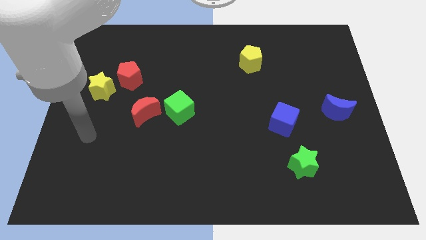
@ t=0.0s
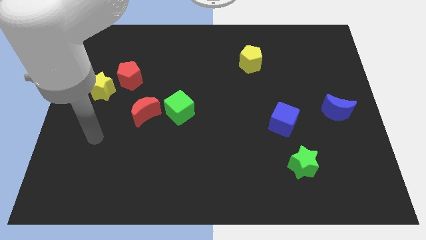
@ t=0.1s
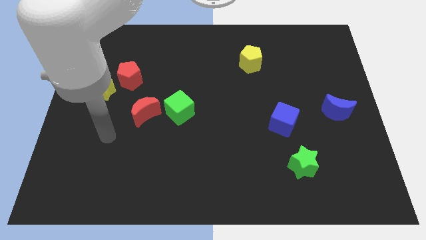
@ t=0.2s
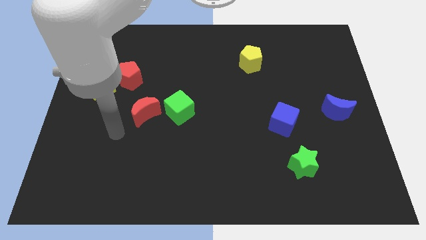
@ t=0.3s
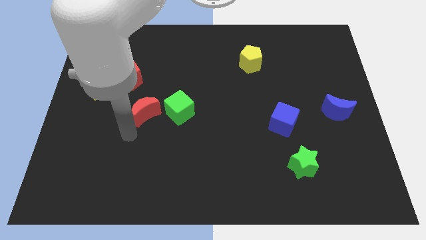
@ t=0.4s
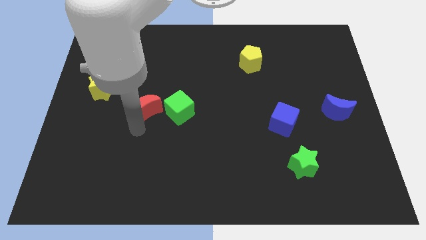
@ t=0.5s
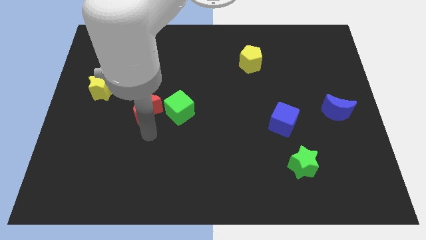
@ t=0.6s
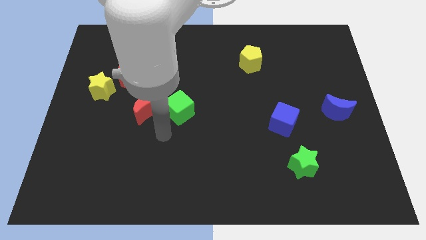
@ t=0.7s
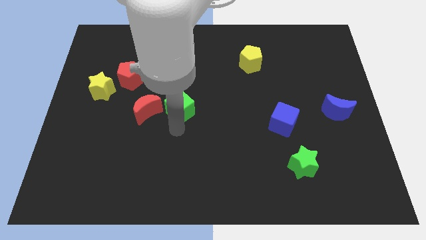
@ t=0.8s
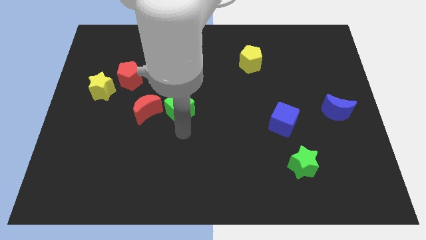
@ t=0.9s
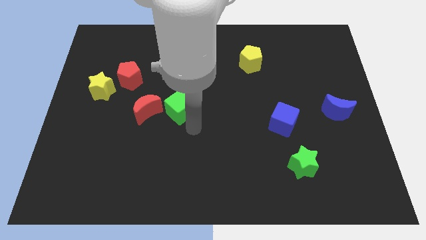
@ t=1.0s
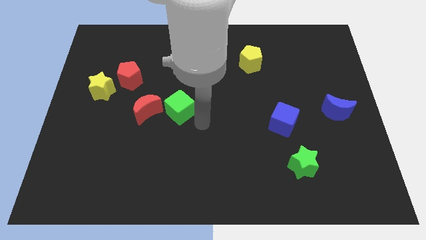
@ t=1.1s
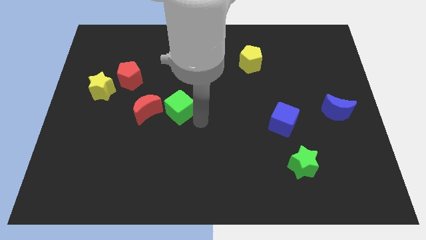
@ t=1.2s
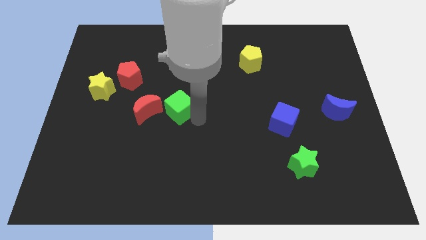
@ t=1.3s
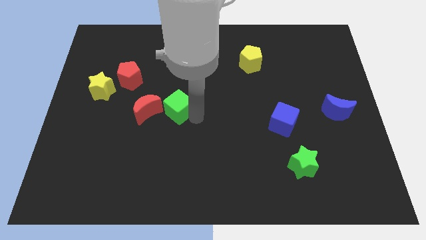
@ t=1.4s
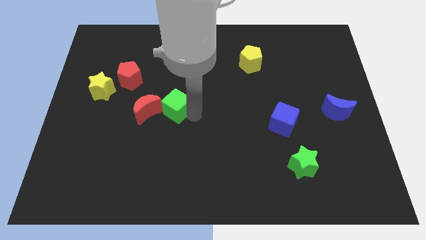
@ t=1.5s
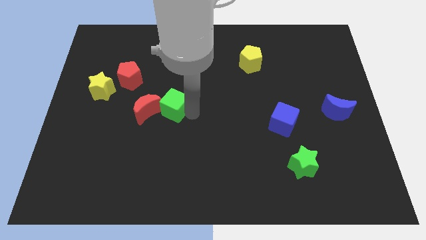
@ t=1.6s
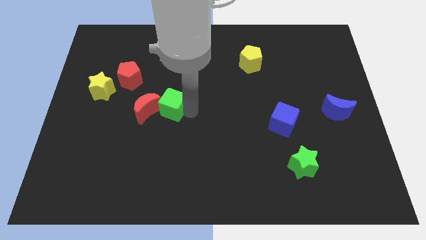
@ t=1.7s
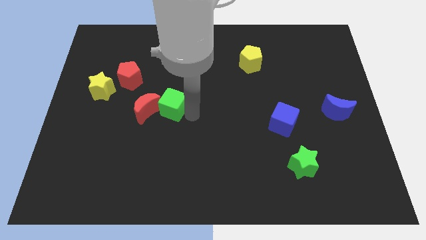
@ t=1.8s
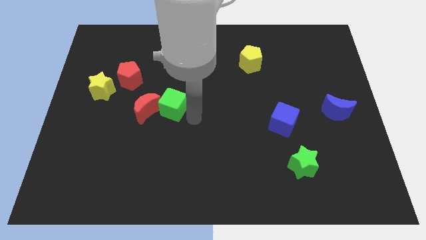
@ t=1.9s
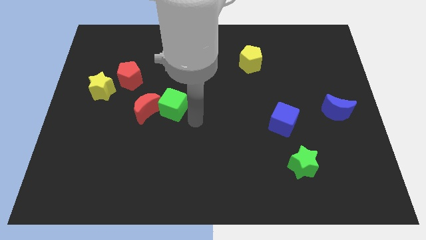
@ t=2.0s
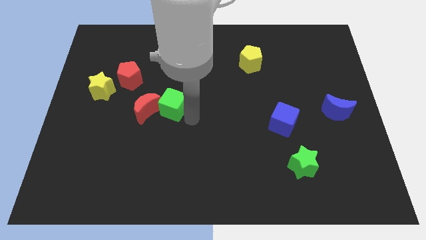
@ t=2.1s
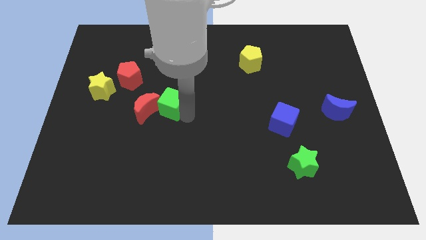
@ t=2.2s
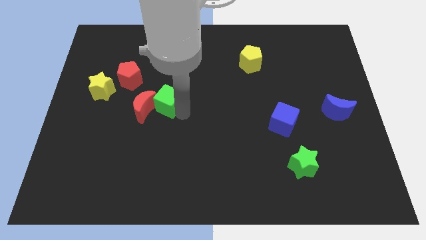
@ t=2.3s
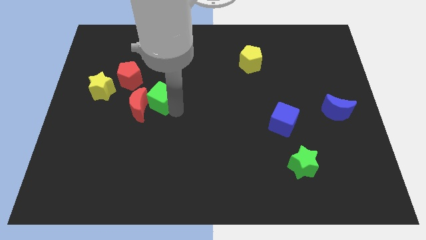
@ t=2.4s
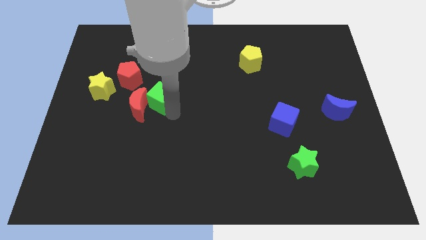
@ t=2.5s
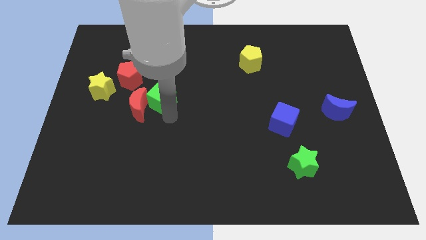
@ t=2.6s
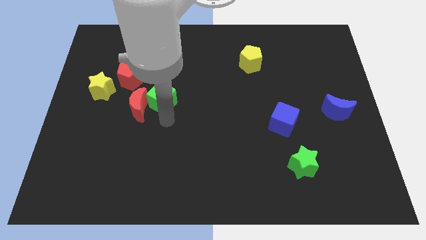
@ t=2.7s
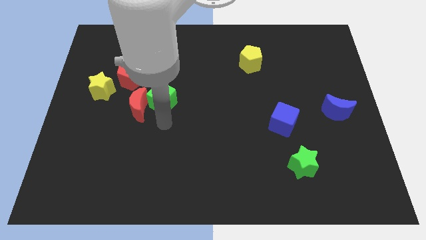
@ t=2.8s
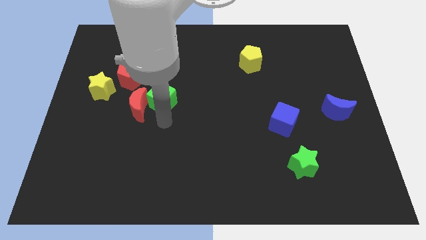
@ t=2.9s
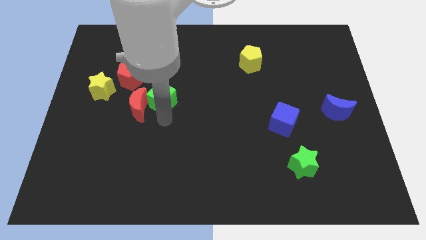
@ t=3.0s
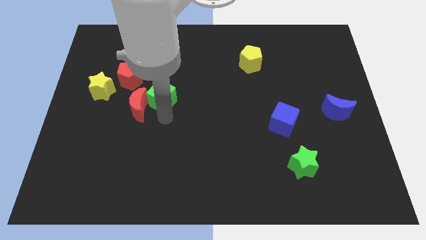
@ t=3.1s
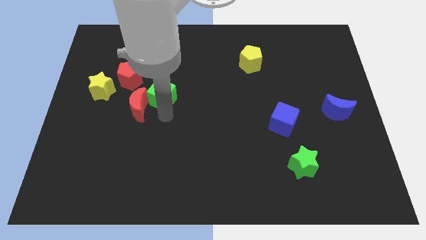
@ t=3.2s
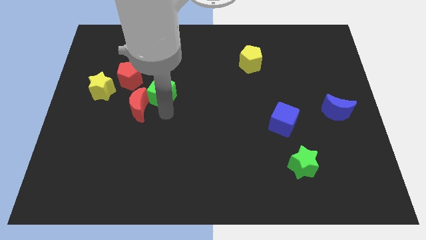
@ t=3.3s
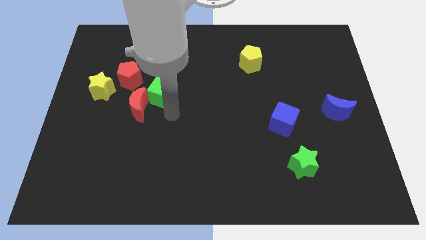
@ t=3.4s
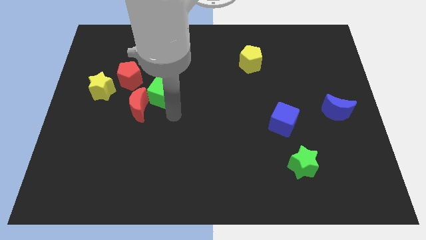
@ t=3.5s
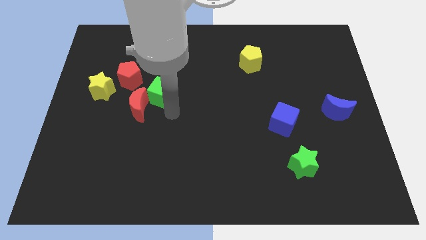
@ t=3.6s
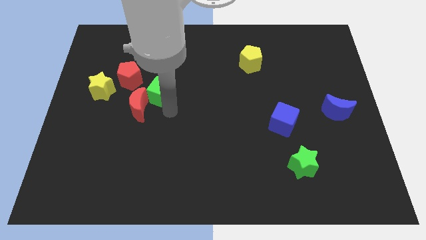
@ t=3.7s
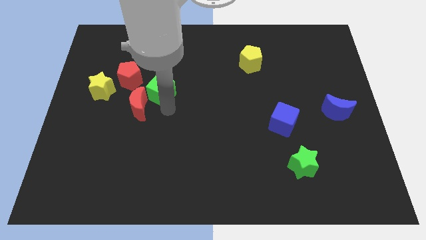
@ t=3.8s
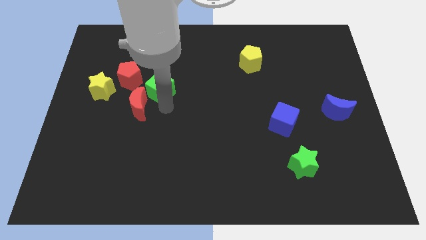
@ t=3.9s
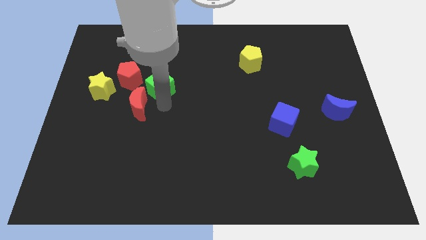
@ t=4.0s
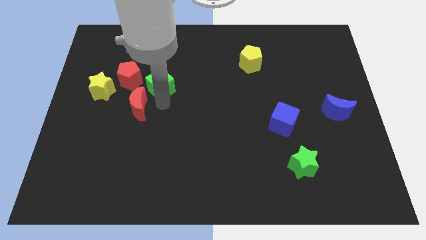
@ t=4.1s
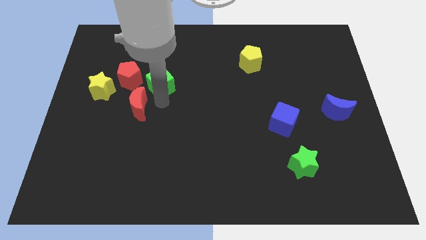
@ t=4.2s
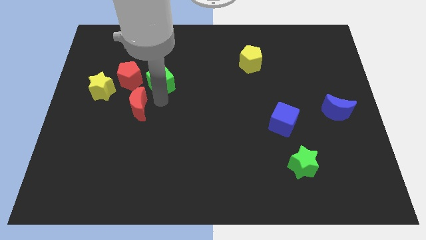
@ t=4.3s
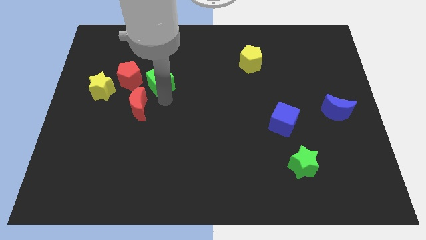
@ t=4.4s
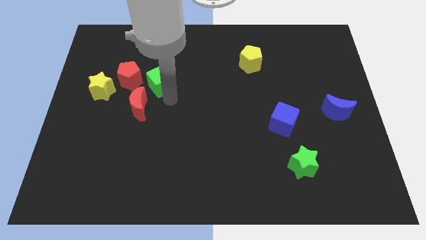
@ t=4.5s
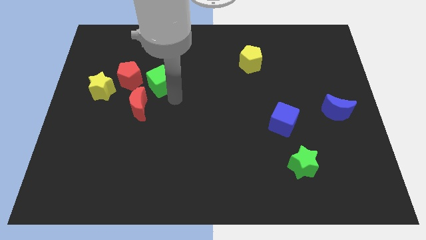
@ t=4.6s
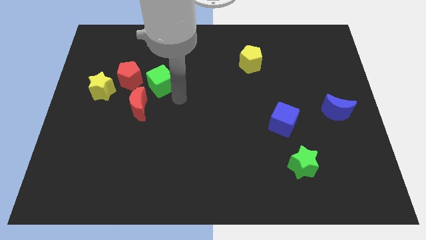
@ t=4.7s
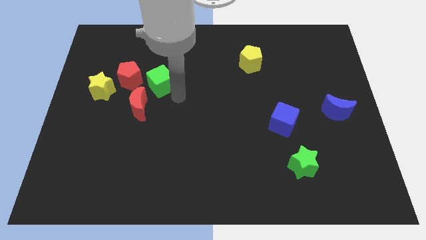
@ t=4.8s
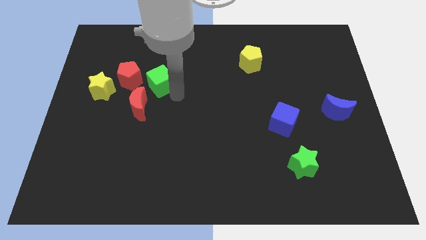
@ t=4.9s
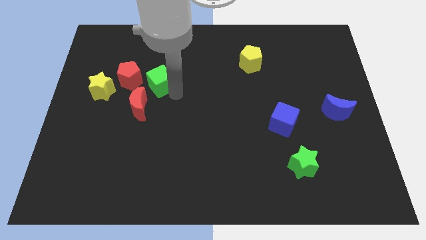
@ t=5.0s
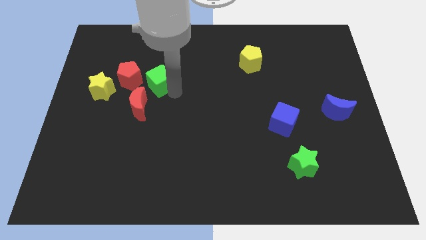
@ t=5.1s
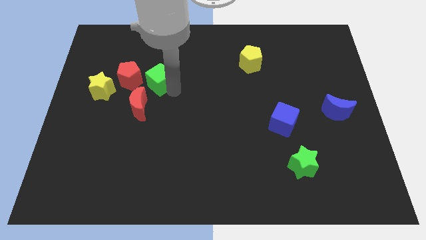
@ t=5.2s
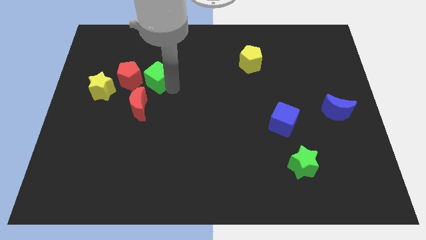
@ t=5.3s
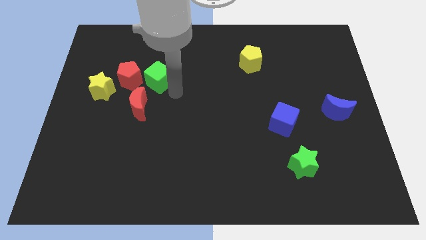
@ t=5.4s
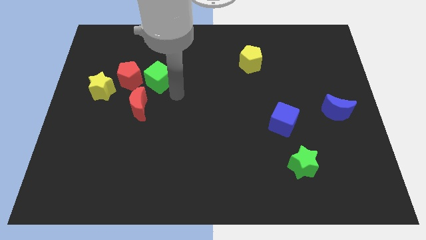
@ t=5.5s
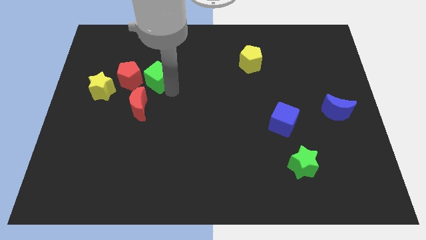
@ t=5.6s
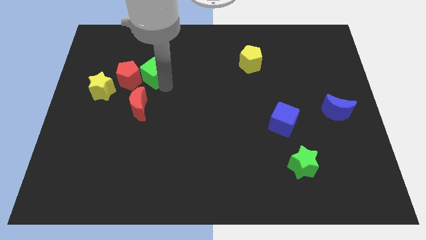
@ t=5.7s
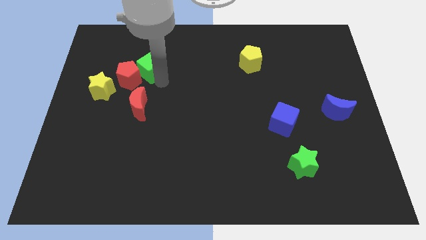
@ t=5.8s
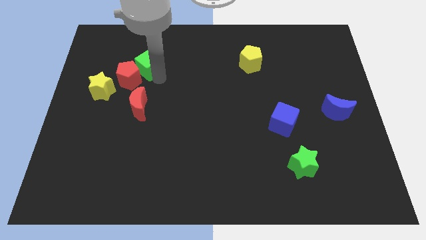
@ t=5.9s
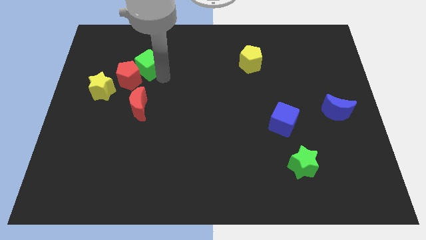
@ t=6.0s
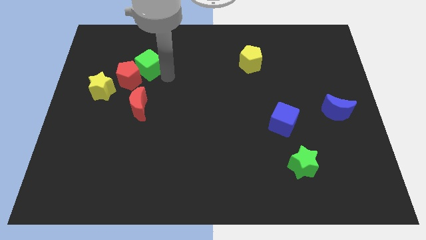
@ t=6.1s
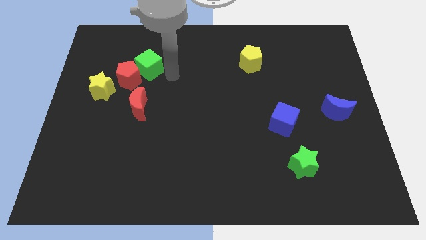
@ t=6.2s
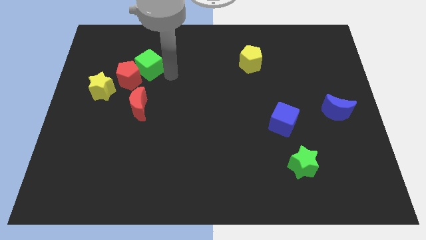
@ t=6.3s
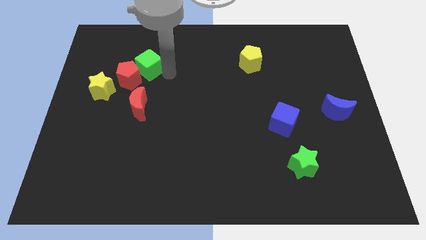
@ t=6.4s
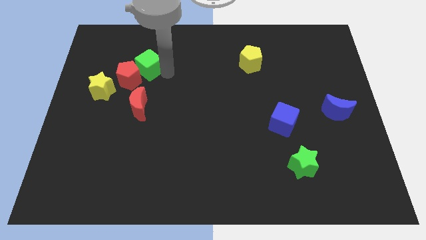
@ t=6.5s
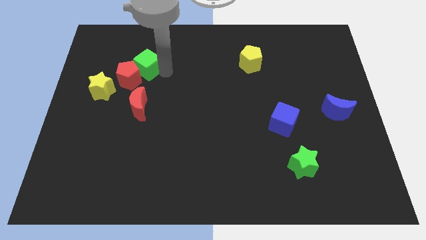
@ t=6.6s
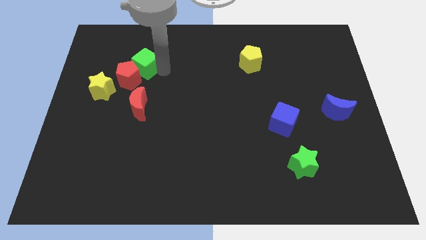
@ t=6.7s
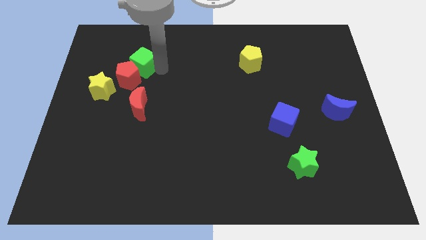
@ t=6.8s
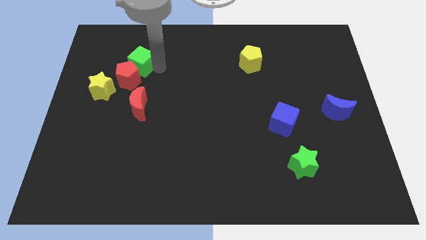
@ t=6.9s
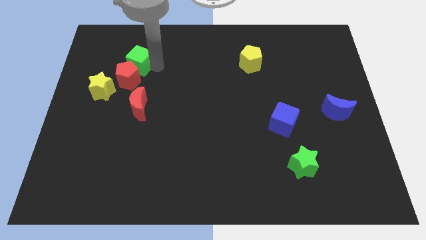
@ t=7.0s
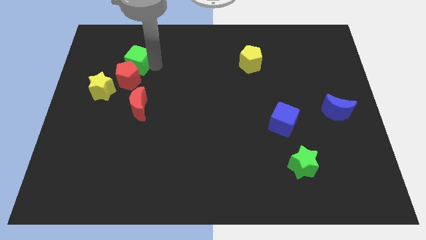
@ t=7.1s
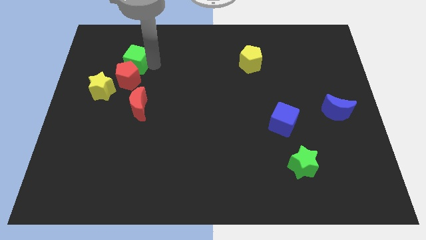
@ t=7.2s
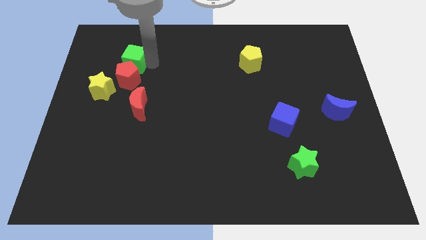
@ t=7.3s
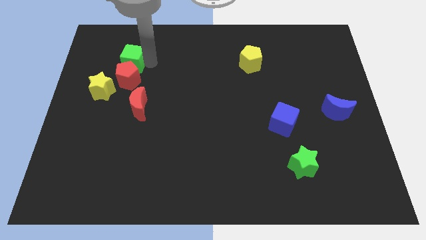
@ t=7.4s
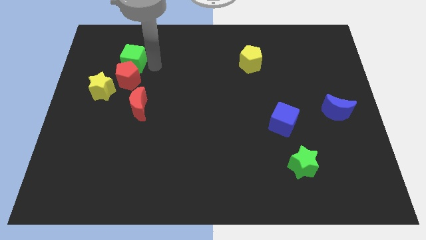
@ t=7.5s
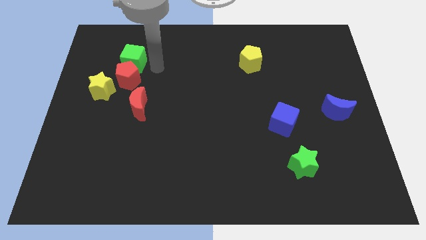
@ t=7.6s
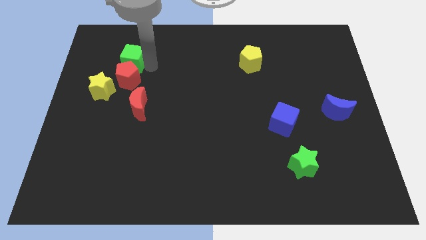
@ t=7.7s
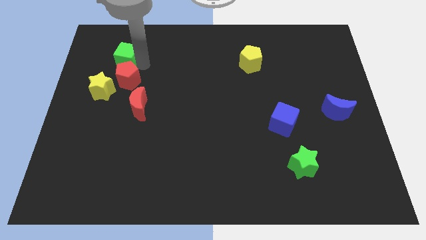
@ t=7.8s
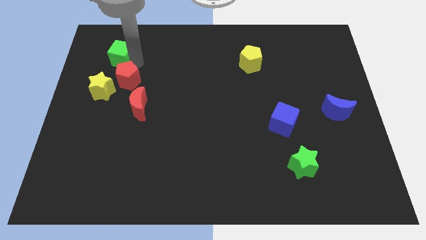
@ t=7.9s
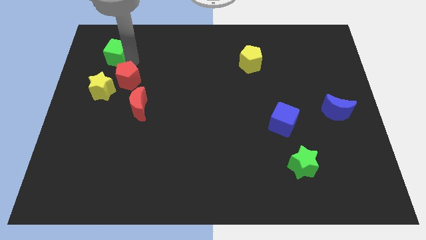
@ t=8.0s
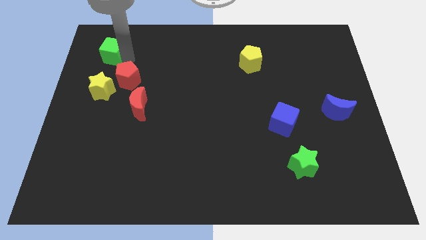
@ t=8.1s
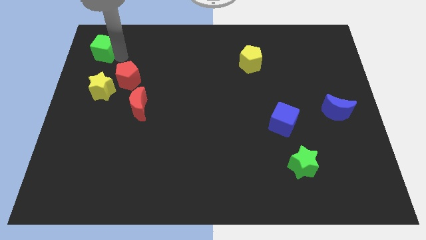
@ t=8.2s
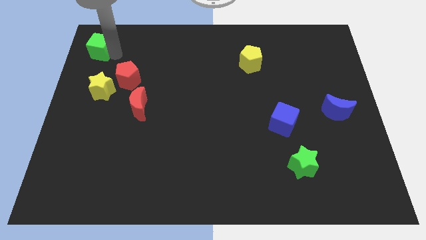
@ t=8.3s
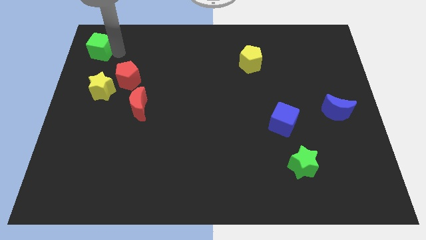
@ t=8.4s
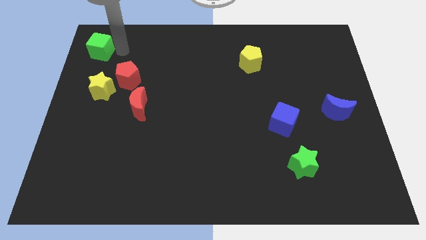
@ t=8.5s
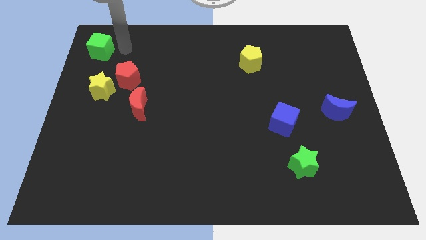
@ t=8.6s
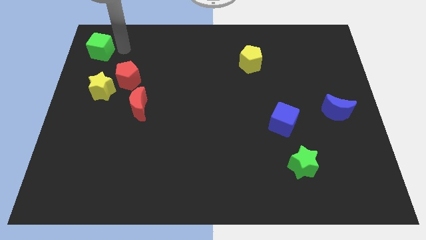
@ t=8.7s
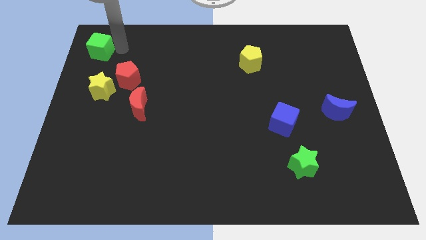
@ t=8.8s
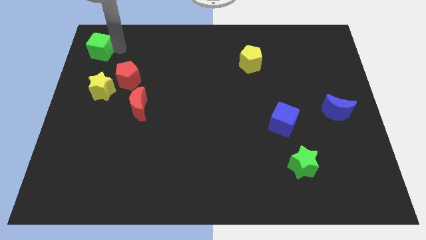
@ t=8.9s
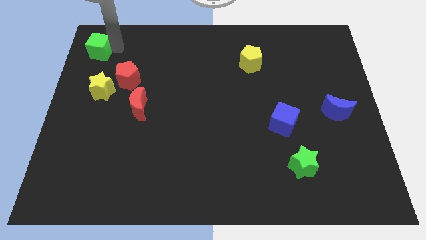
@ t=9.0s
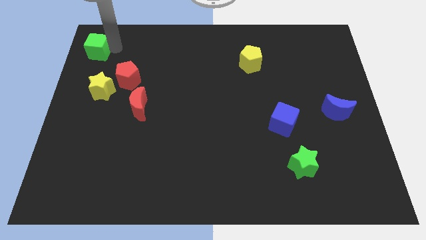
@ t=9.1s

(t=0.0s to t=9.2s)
push the green cube to the top left

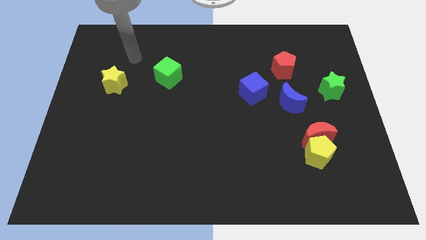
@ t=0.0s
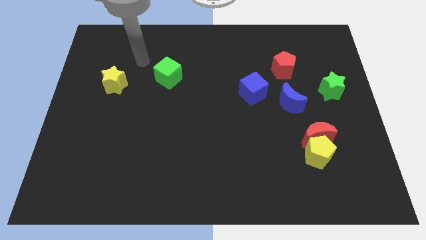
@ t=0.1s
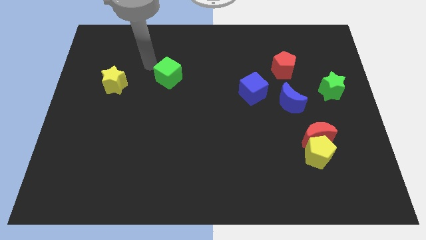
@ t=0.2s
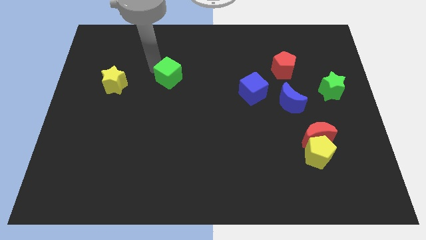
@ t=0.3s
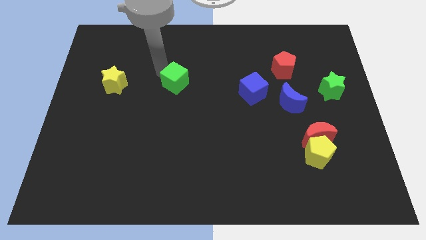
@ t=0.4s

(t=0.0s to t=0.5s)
move the green cube to the center of the board
